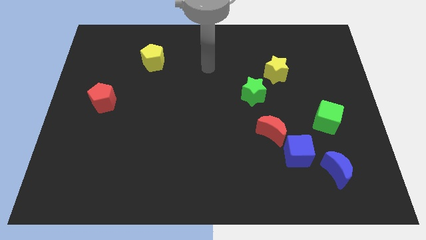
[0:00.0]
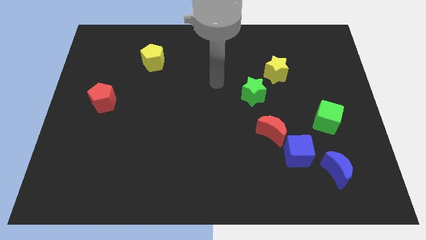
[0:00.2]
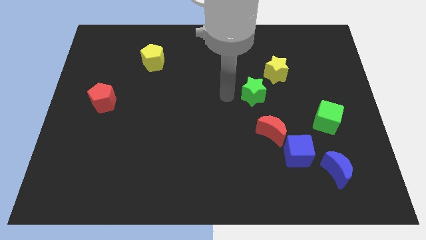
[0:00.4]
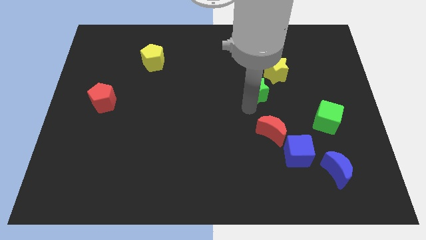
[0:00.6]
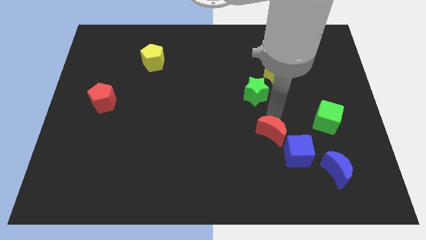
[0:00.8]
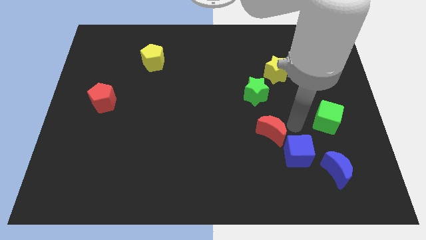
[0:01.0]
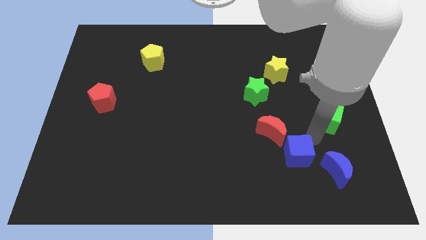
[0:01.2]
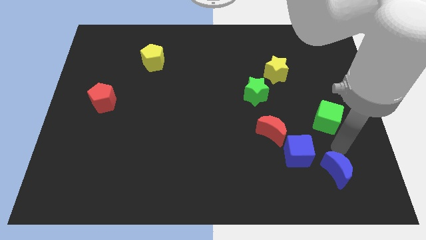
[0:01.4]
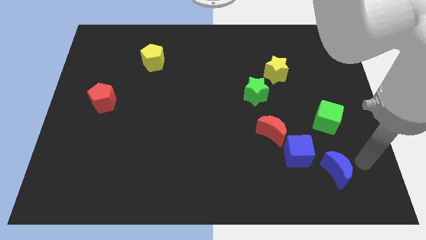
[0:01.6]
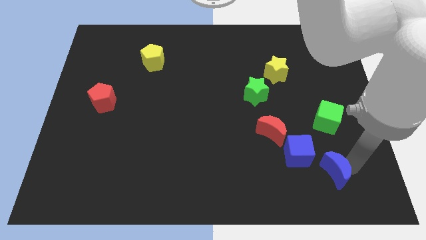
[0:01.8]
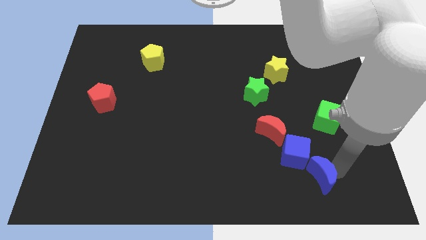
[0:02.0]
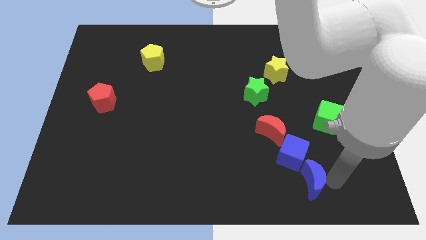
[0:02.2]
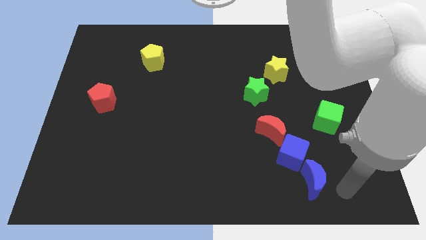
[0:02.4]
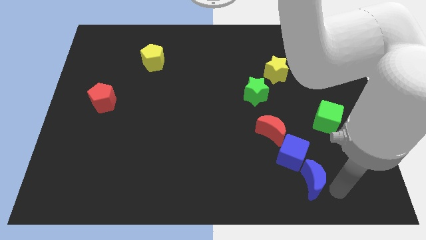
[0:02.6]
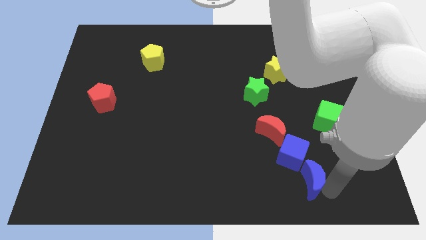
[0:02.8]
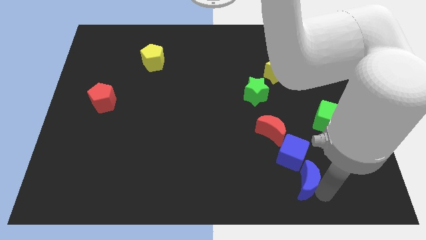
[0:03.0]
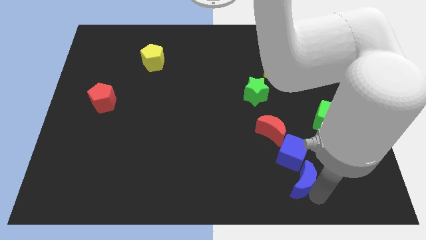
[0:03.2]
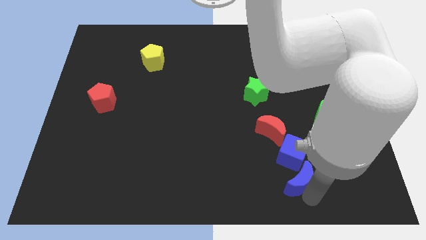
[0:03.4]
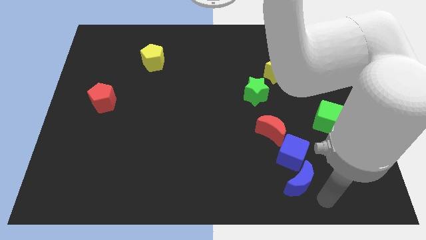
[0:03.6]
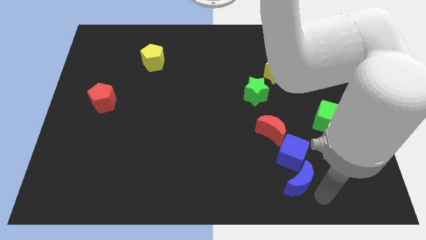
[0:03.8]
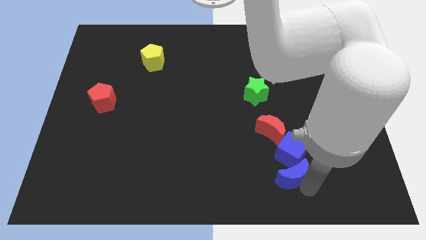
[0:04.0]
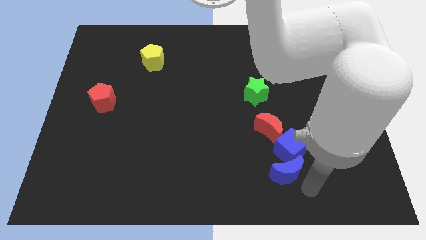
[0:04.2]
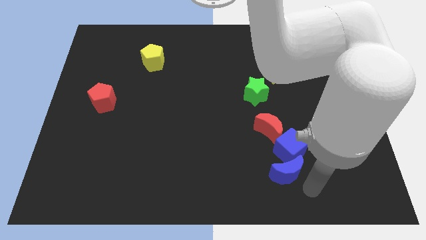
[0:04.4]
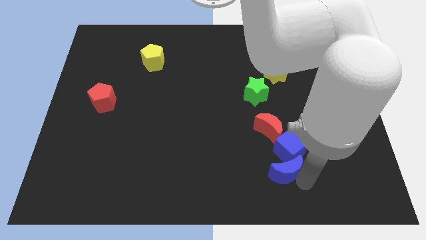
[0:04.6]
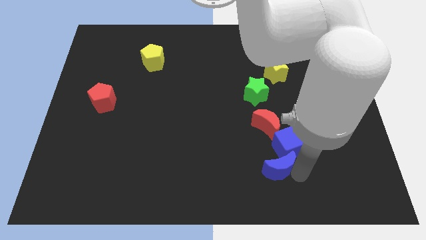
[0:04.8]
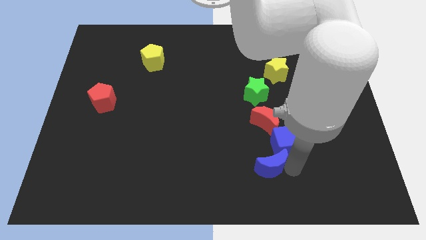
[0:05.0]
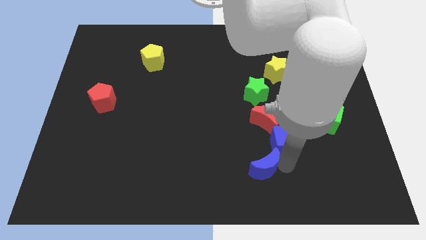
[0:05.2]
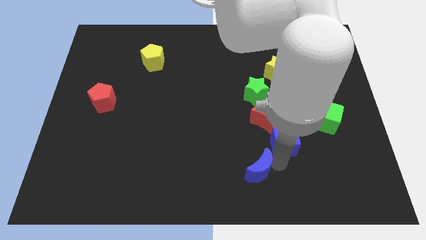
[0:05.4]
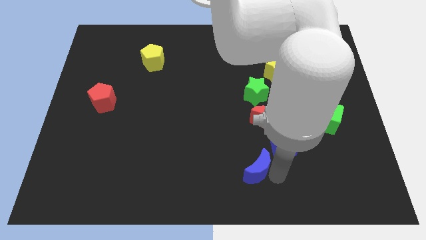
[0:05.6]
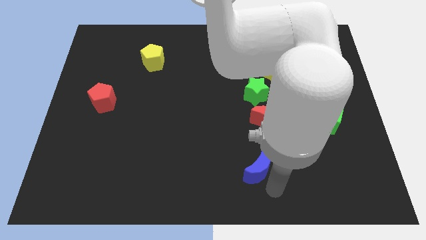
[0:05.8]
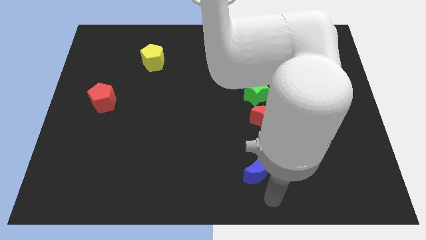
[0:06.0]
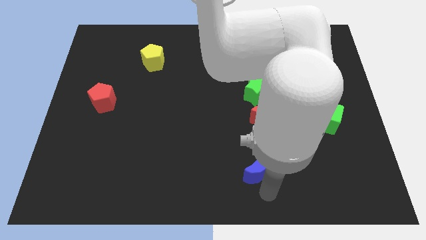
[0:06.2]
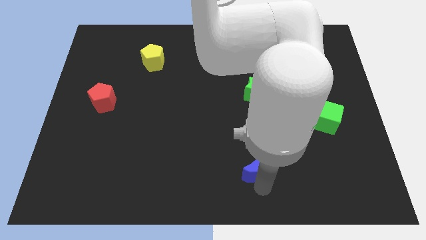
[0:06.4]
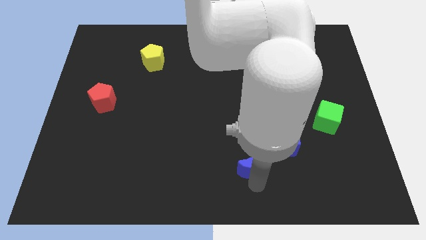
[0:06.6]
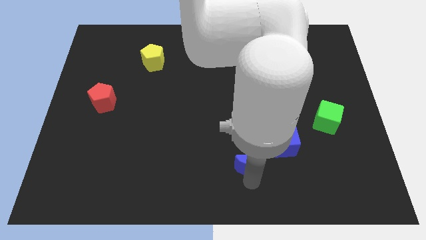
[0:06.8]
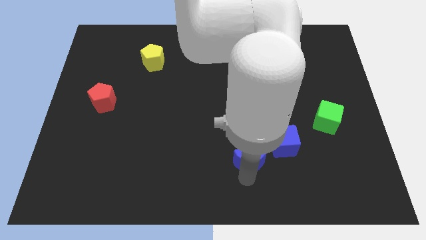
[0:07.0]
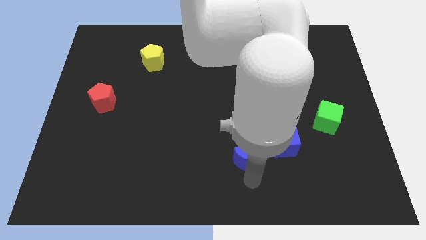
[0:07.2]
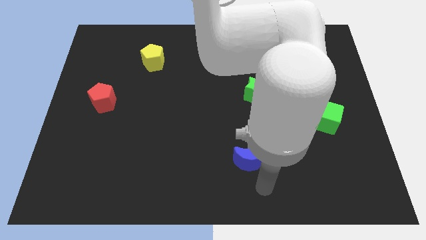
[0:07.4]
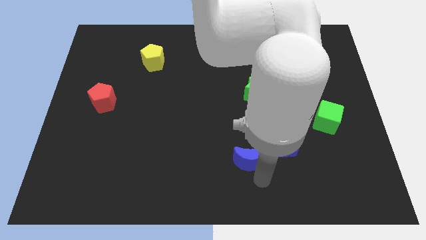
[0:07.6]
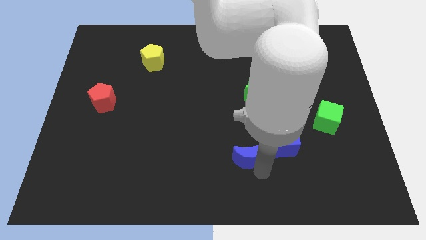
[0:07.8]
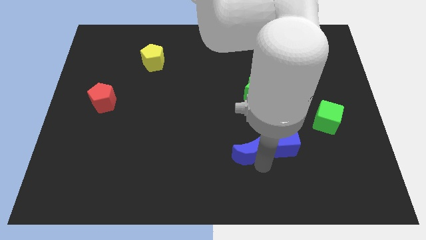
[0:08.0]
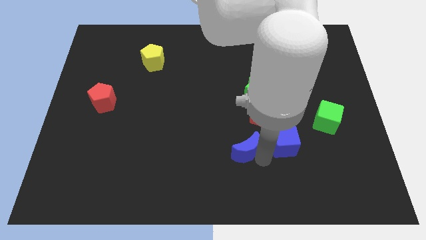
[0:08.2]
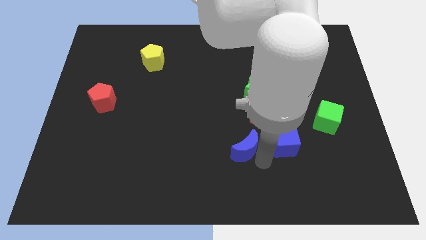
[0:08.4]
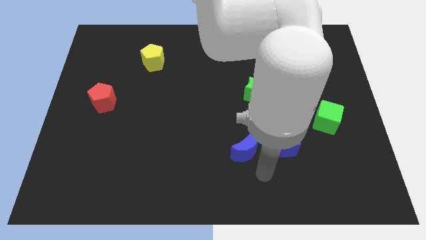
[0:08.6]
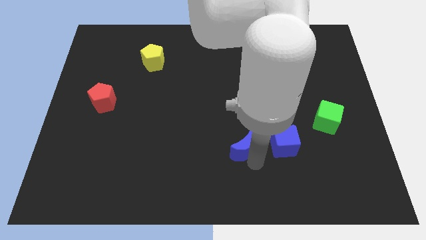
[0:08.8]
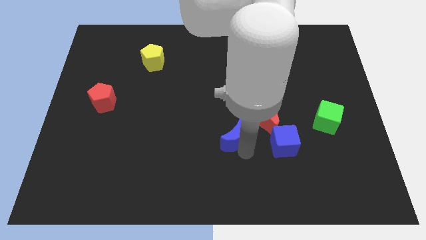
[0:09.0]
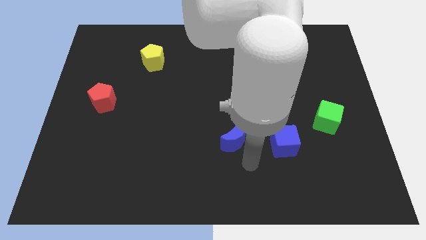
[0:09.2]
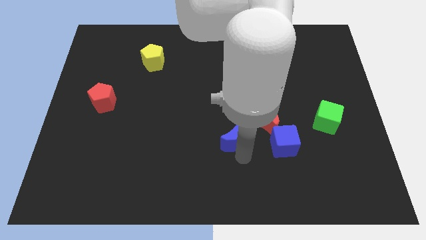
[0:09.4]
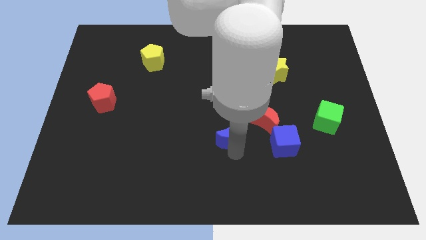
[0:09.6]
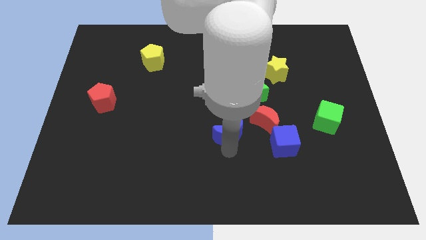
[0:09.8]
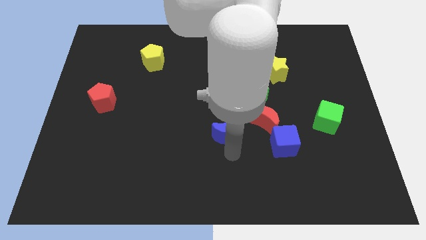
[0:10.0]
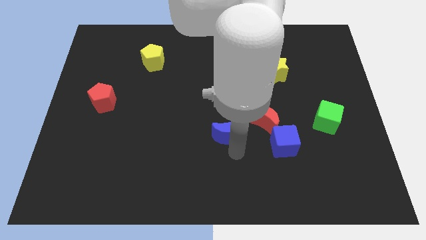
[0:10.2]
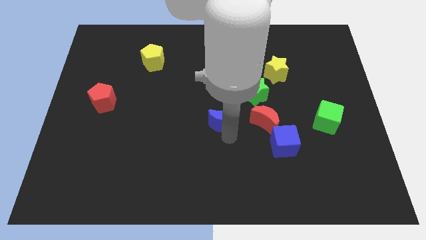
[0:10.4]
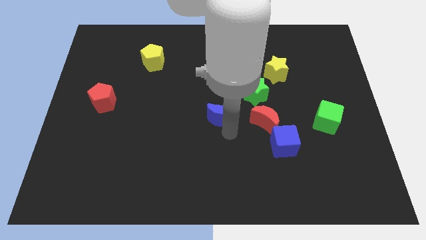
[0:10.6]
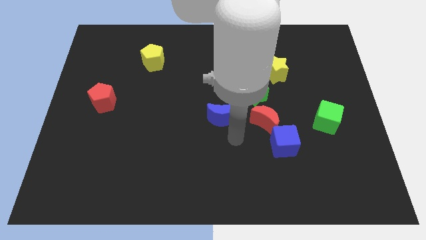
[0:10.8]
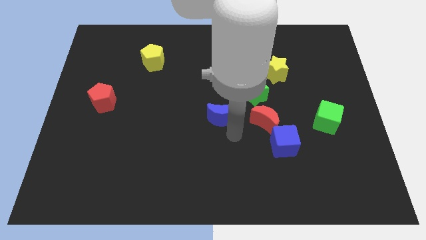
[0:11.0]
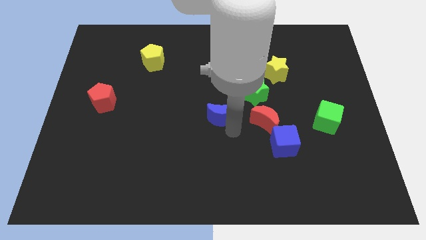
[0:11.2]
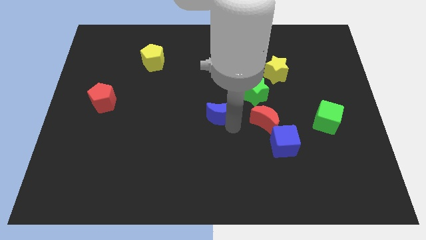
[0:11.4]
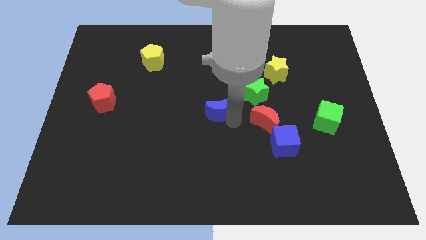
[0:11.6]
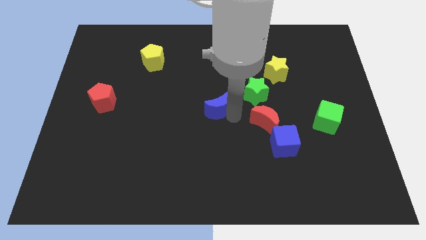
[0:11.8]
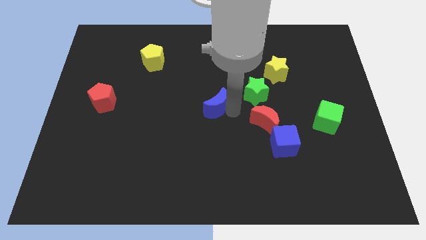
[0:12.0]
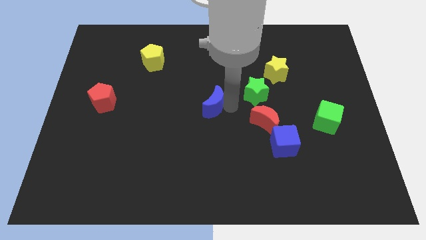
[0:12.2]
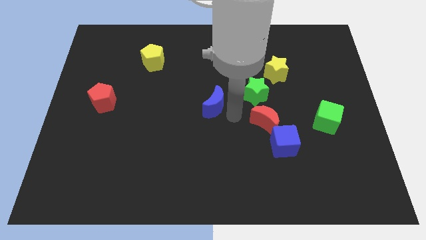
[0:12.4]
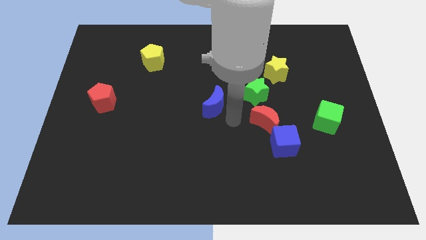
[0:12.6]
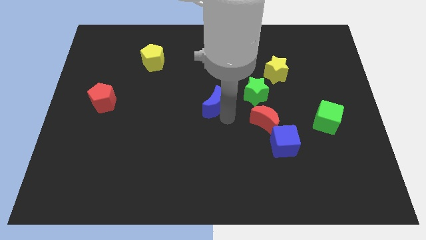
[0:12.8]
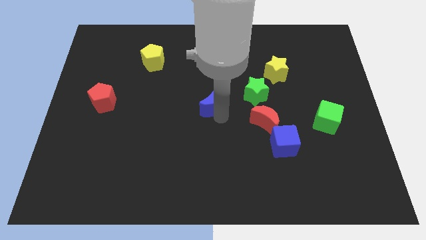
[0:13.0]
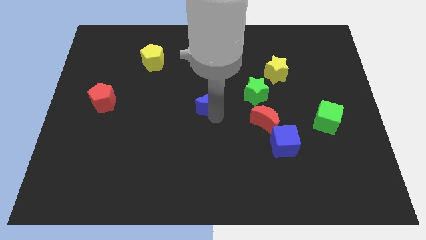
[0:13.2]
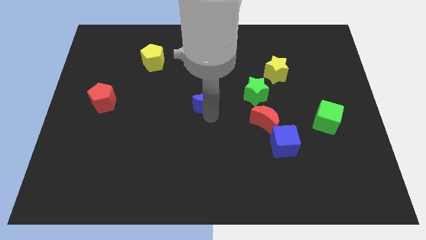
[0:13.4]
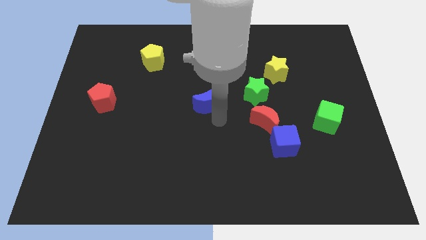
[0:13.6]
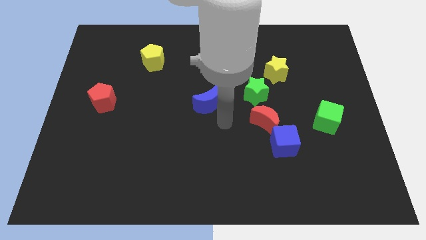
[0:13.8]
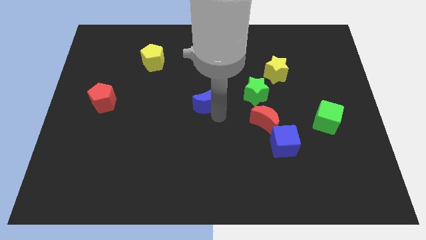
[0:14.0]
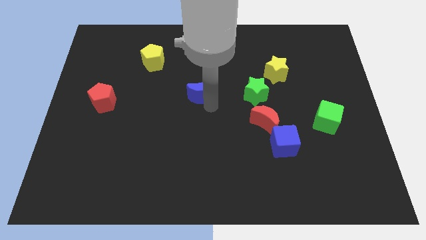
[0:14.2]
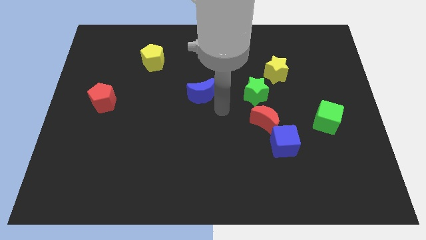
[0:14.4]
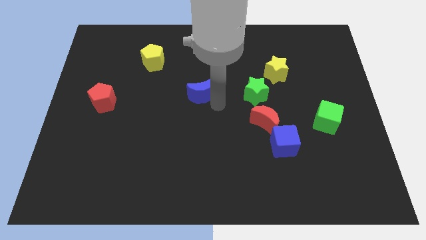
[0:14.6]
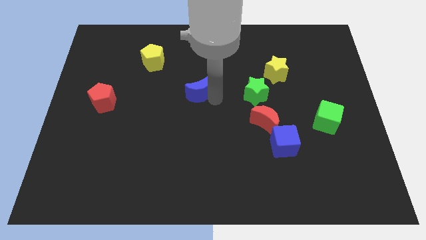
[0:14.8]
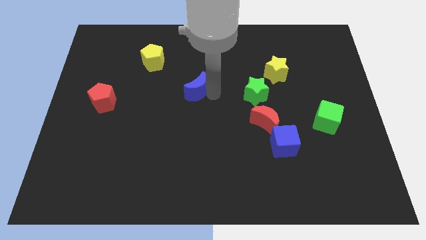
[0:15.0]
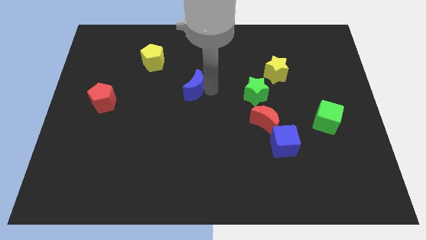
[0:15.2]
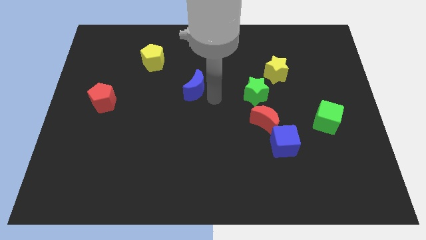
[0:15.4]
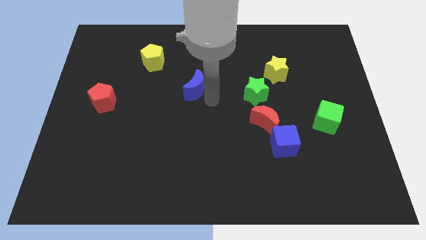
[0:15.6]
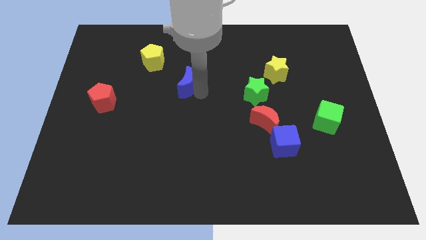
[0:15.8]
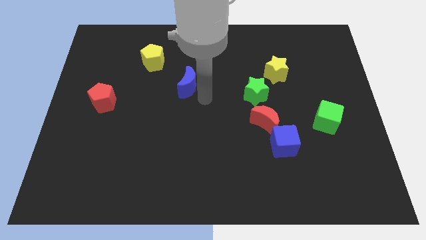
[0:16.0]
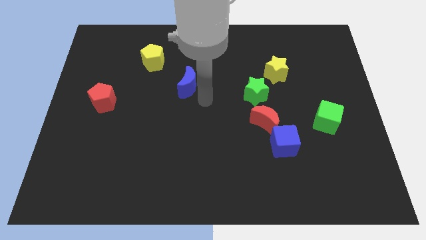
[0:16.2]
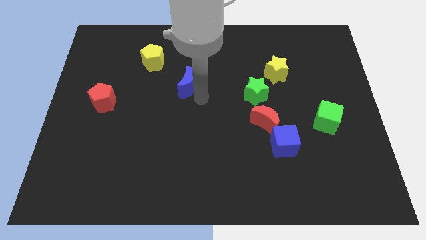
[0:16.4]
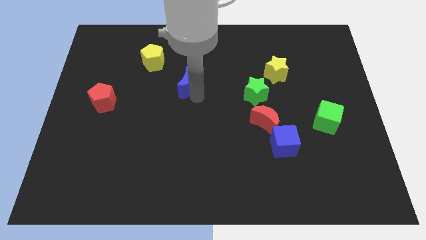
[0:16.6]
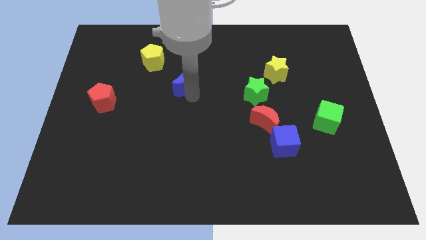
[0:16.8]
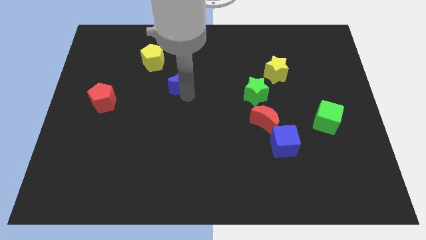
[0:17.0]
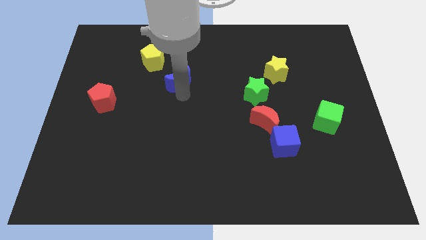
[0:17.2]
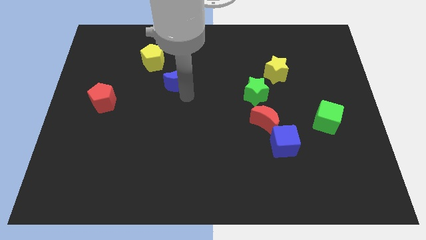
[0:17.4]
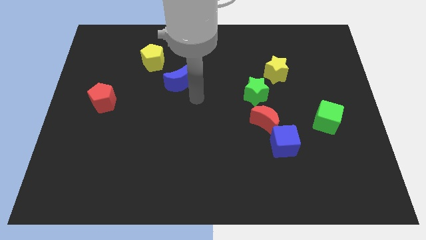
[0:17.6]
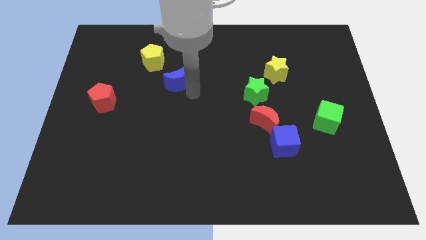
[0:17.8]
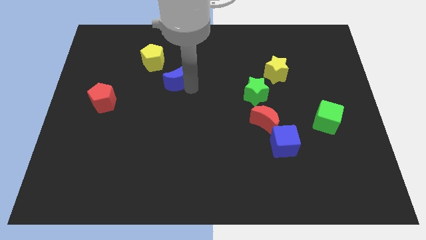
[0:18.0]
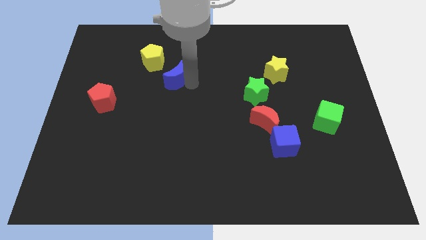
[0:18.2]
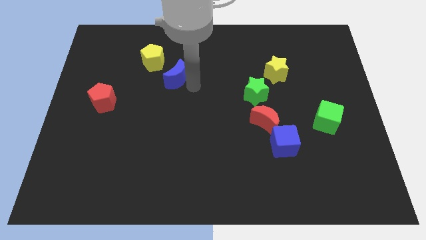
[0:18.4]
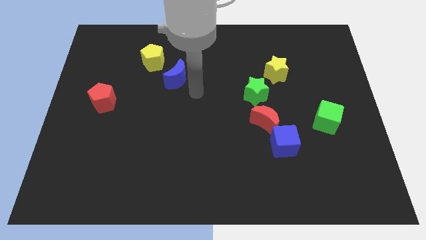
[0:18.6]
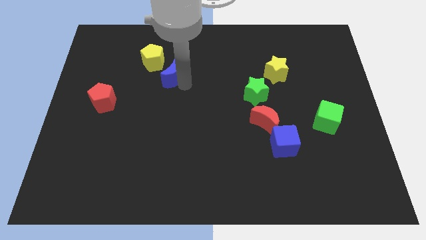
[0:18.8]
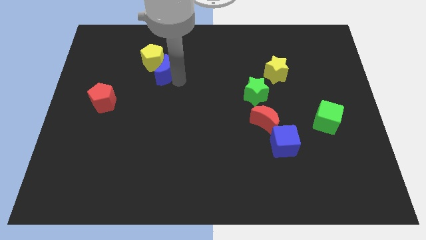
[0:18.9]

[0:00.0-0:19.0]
push the blue moon towards the yellow pentagon
